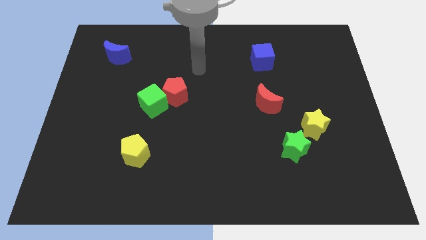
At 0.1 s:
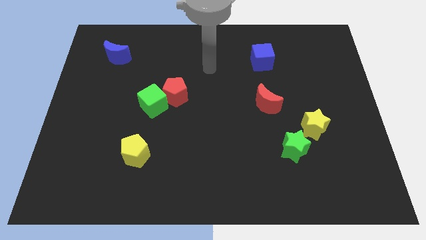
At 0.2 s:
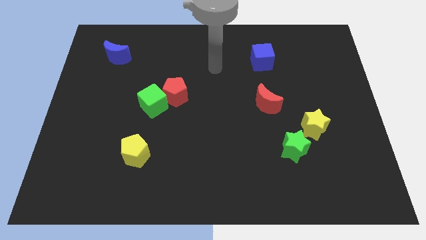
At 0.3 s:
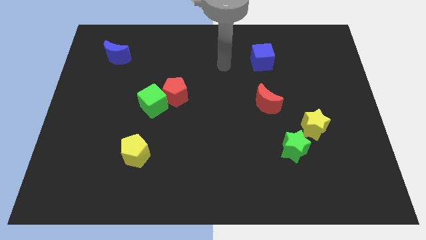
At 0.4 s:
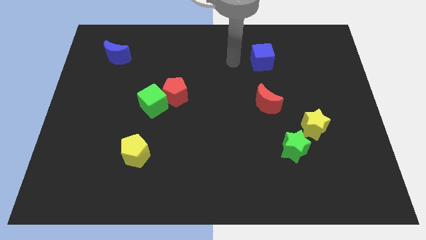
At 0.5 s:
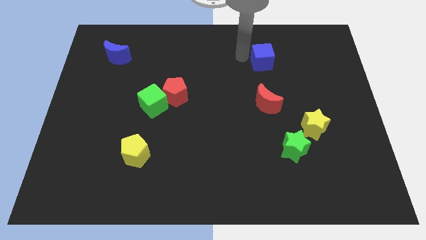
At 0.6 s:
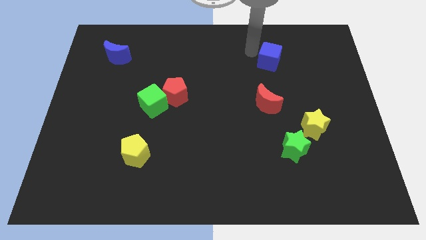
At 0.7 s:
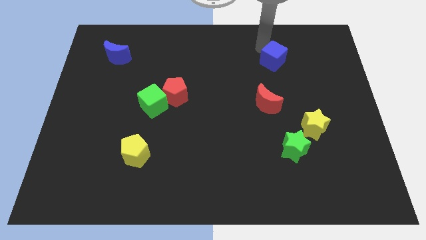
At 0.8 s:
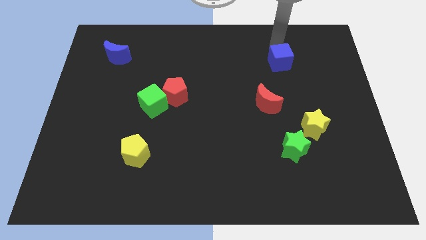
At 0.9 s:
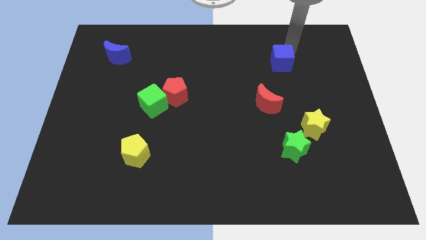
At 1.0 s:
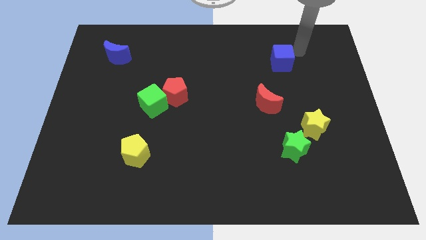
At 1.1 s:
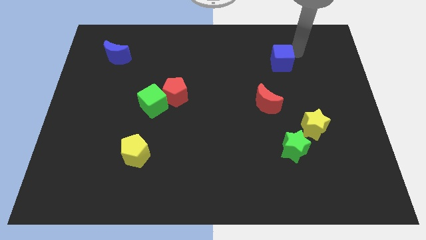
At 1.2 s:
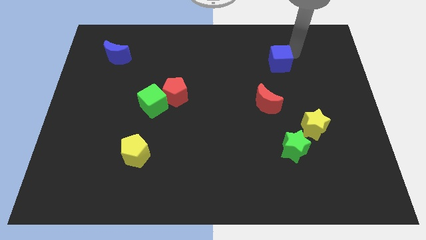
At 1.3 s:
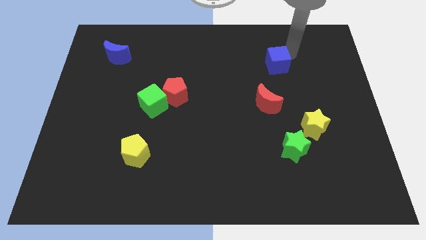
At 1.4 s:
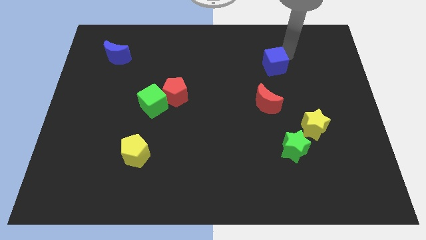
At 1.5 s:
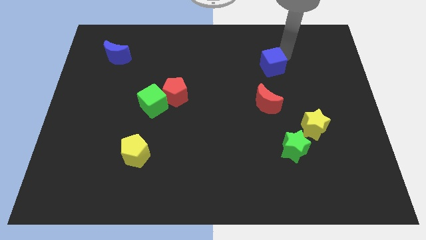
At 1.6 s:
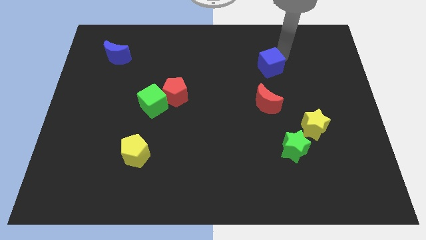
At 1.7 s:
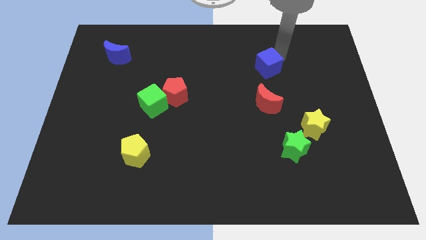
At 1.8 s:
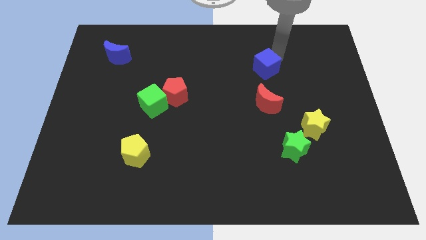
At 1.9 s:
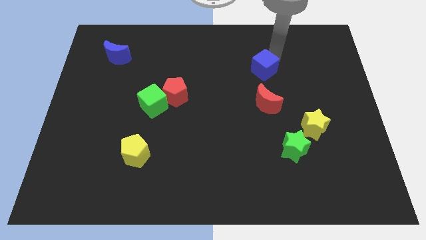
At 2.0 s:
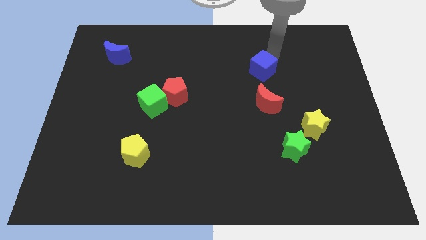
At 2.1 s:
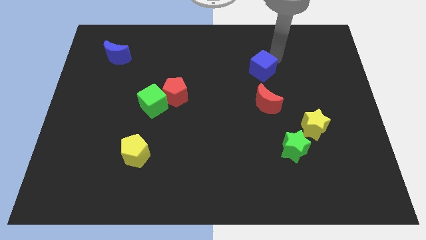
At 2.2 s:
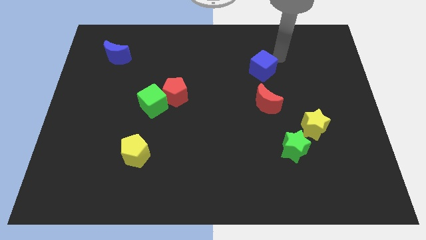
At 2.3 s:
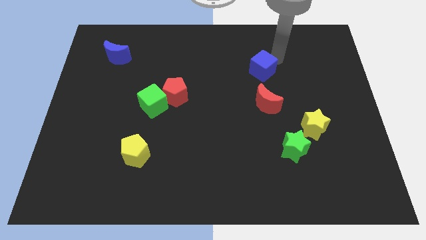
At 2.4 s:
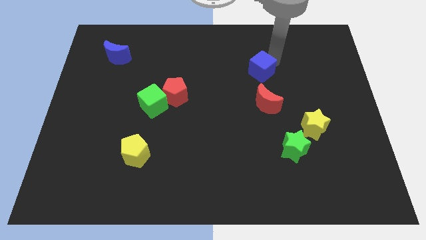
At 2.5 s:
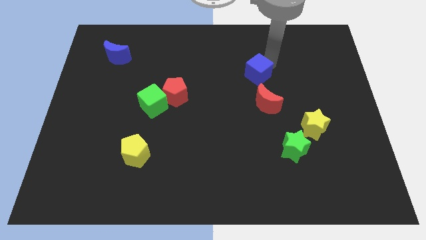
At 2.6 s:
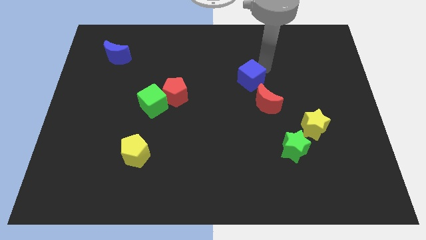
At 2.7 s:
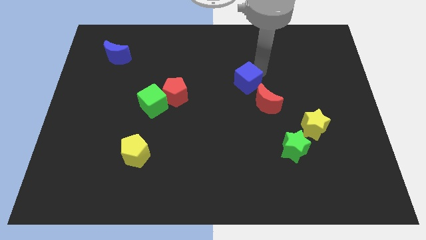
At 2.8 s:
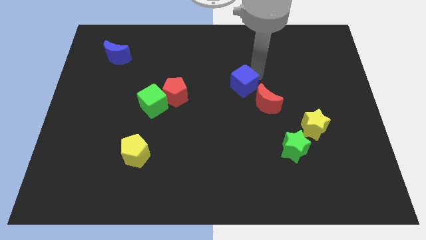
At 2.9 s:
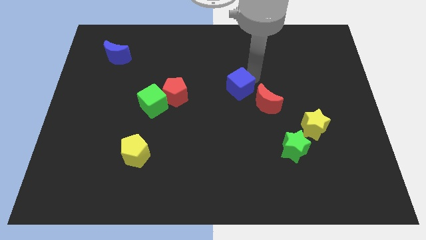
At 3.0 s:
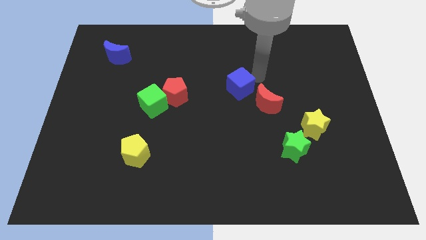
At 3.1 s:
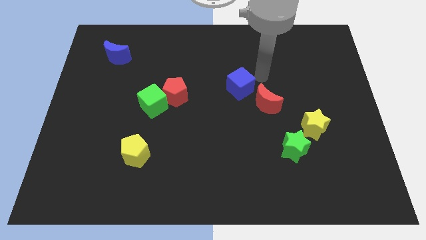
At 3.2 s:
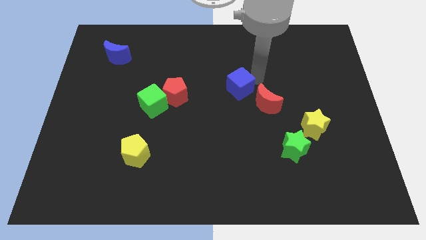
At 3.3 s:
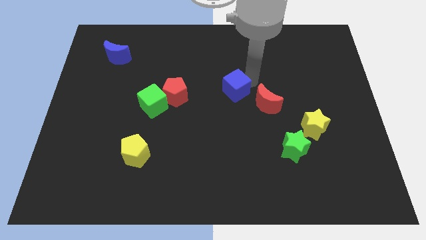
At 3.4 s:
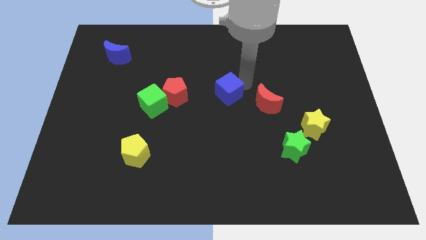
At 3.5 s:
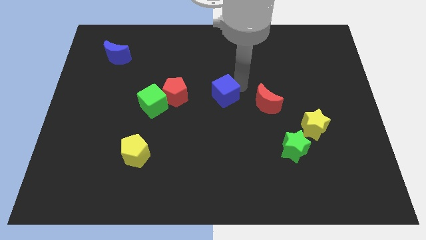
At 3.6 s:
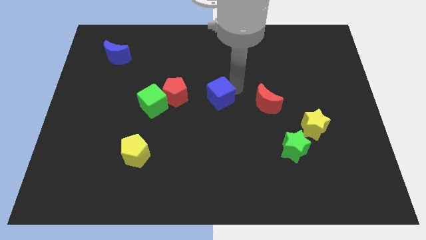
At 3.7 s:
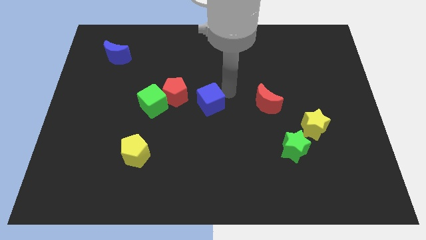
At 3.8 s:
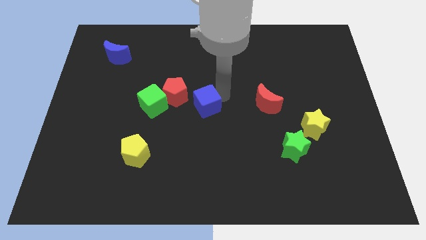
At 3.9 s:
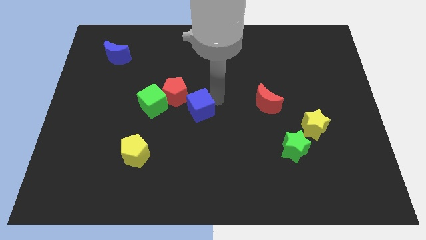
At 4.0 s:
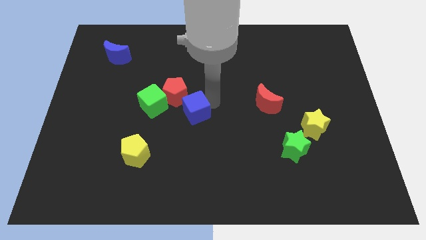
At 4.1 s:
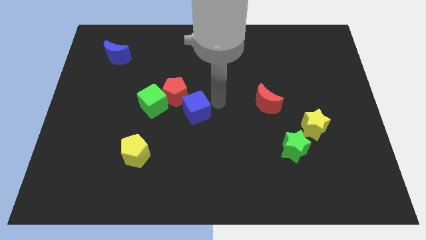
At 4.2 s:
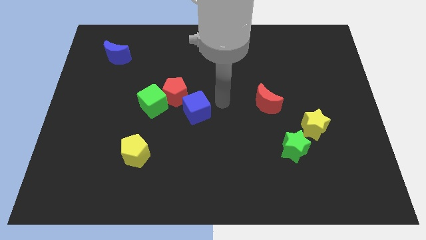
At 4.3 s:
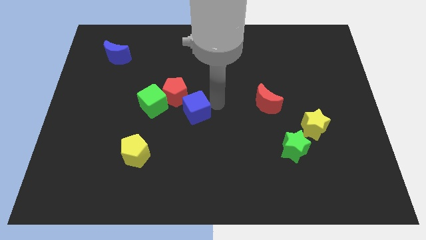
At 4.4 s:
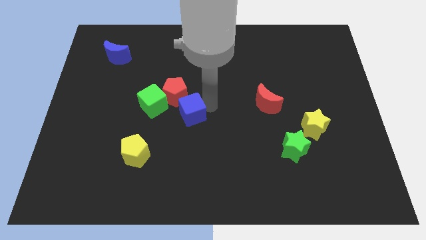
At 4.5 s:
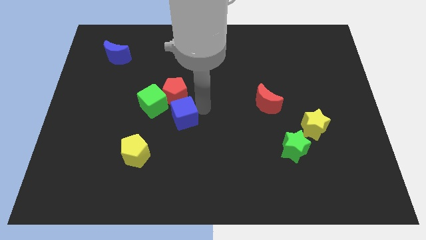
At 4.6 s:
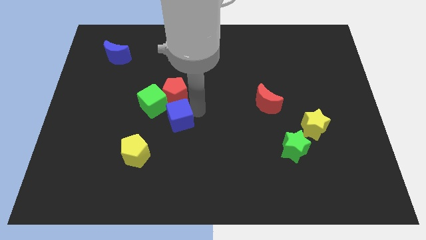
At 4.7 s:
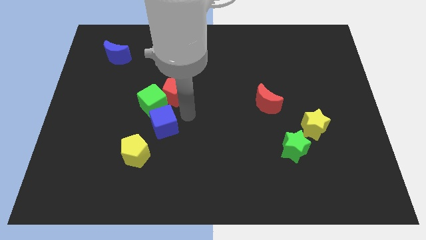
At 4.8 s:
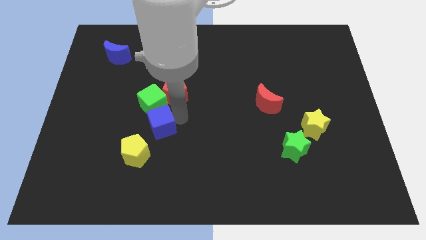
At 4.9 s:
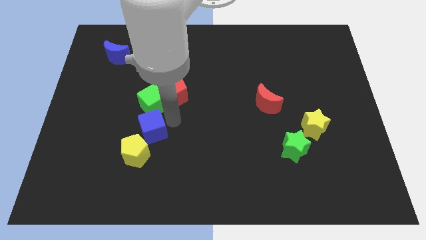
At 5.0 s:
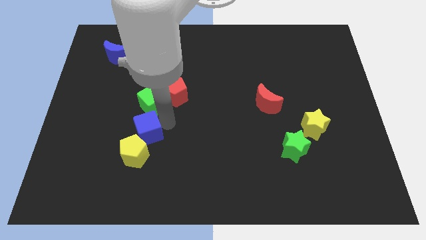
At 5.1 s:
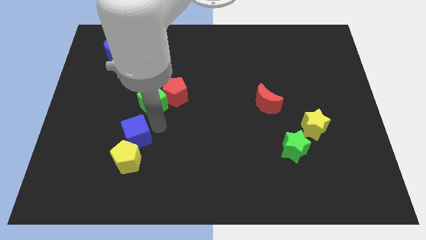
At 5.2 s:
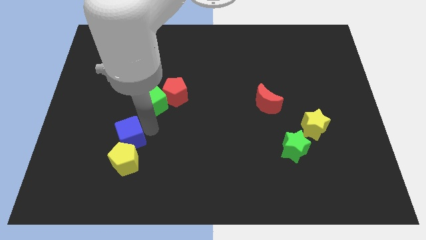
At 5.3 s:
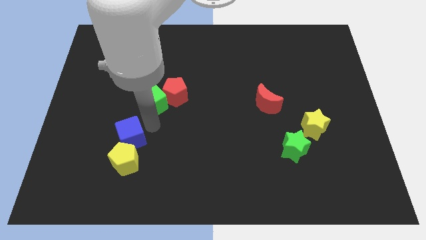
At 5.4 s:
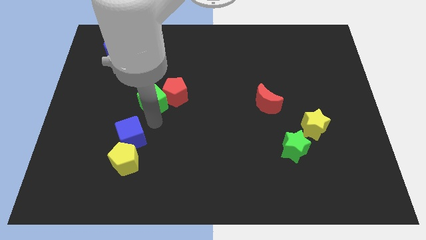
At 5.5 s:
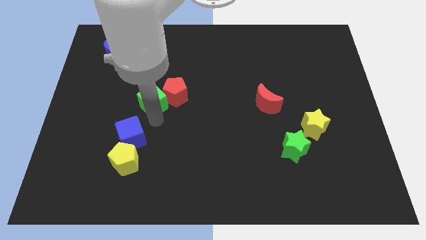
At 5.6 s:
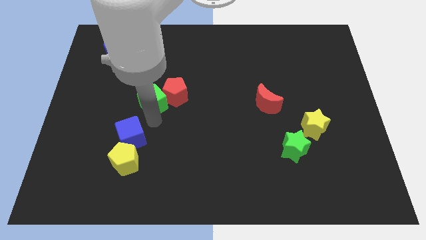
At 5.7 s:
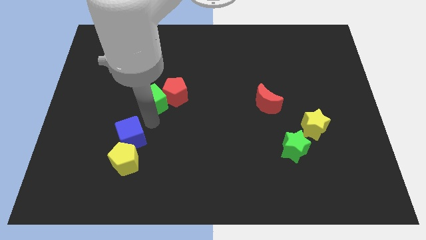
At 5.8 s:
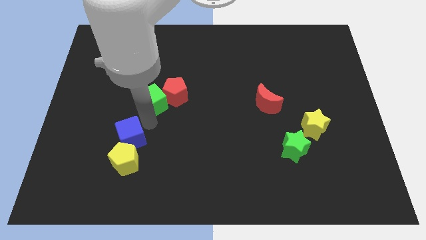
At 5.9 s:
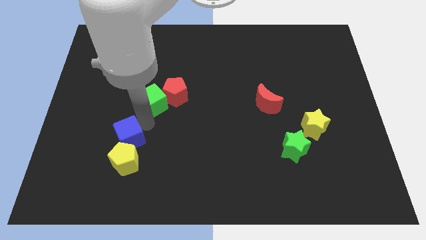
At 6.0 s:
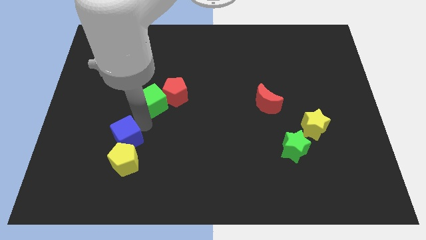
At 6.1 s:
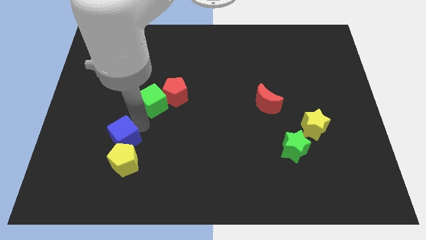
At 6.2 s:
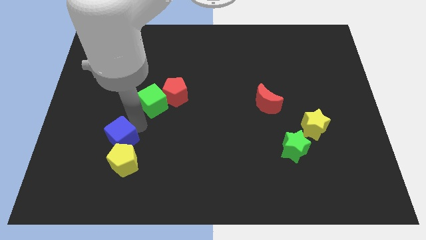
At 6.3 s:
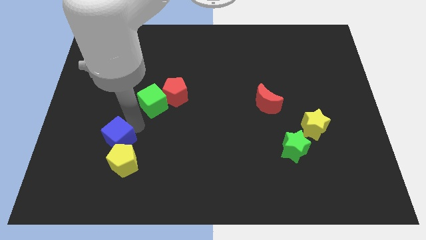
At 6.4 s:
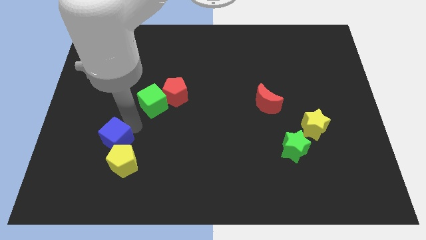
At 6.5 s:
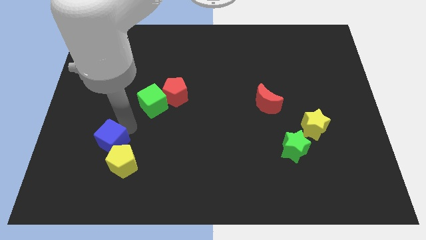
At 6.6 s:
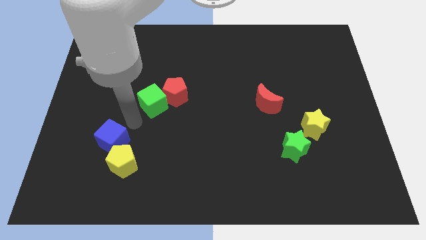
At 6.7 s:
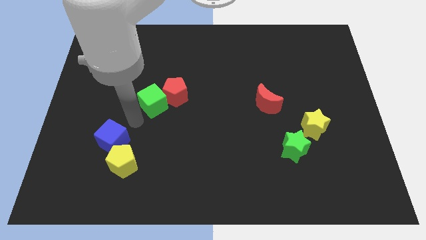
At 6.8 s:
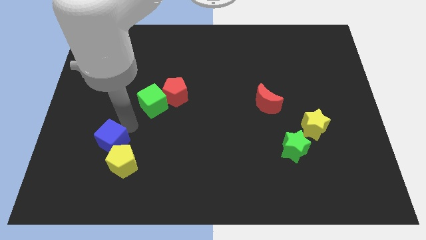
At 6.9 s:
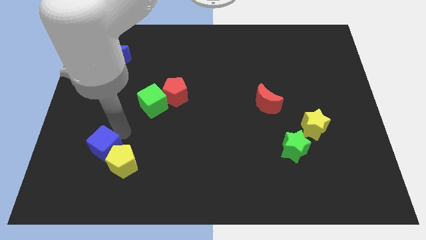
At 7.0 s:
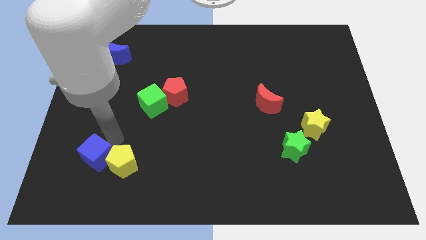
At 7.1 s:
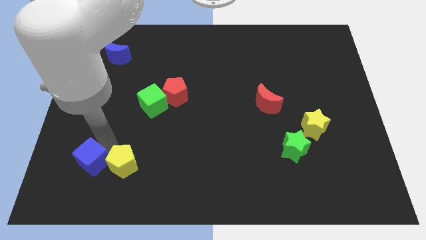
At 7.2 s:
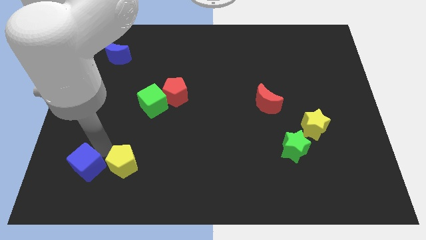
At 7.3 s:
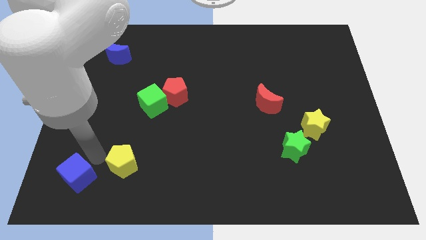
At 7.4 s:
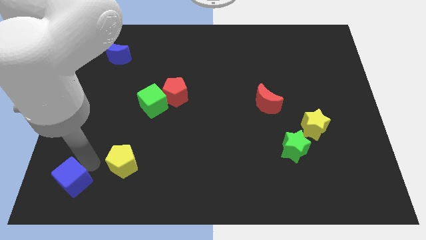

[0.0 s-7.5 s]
push the blue cube to the bottom left of the board

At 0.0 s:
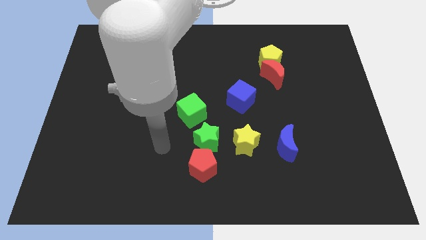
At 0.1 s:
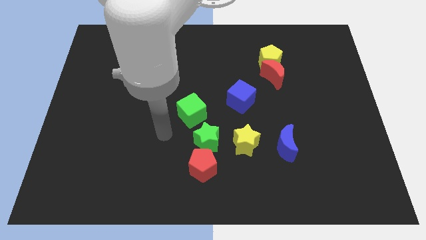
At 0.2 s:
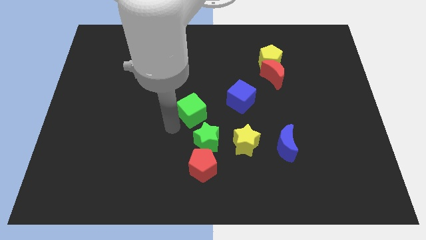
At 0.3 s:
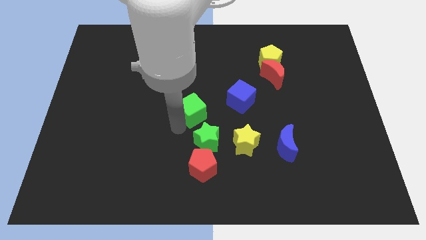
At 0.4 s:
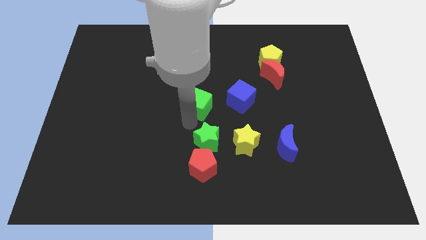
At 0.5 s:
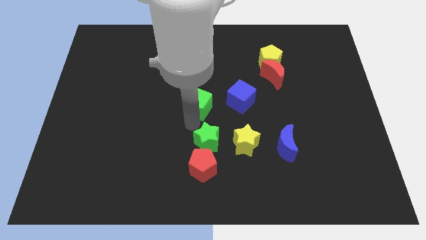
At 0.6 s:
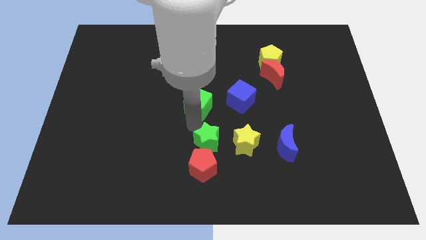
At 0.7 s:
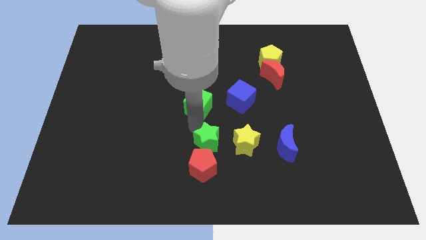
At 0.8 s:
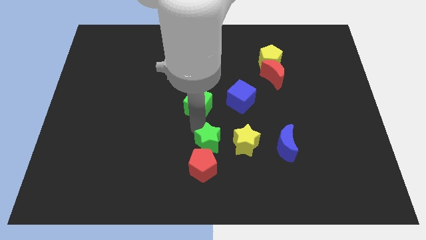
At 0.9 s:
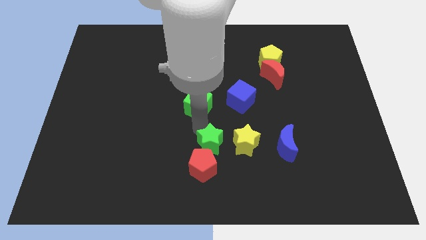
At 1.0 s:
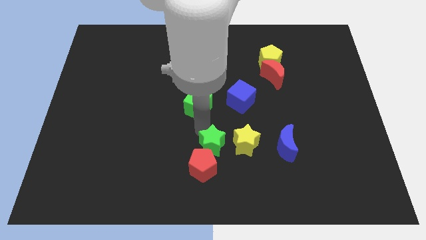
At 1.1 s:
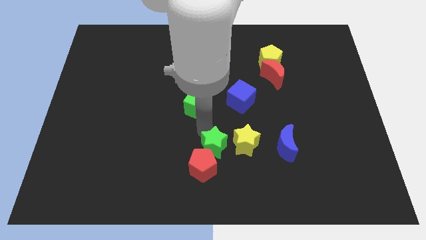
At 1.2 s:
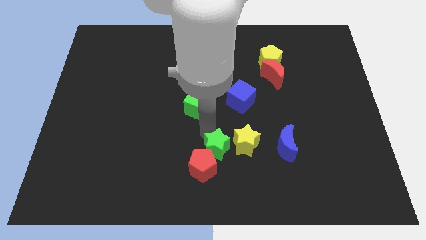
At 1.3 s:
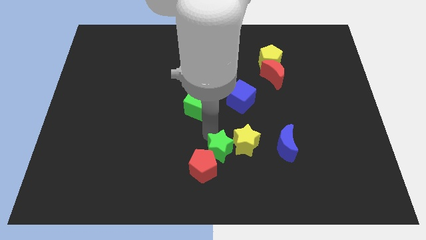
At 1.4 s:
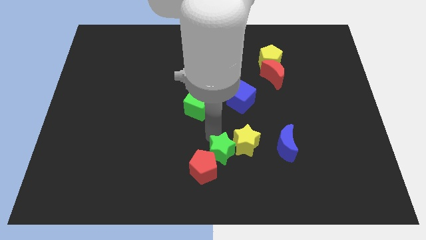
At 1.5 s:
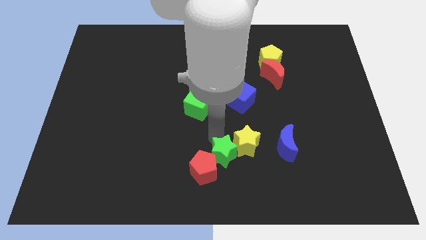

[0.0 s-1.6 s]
put the green star to the bottom
